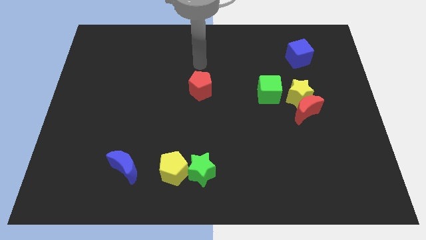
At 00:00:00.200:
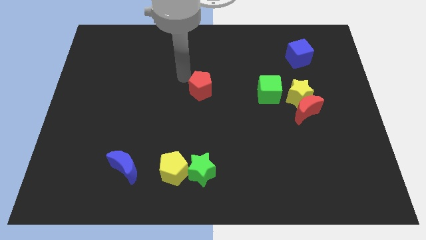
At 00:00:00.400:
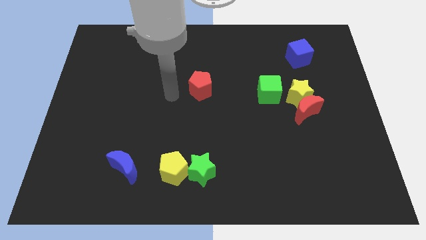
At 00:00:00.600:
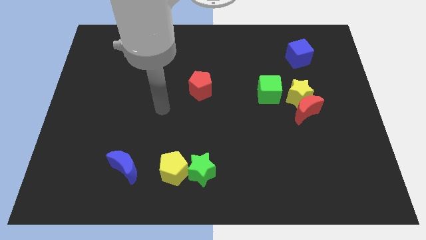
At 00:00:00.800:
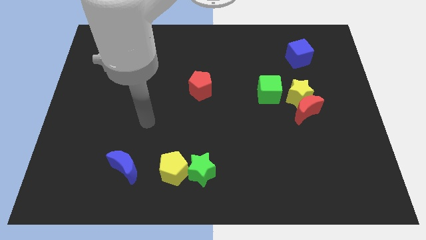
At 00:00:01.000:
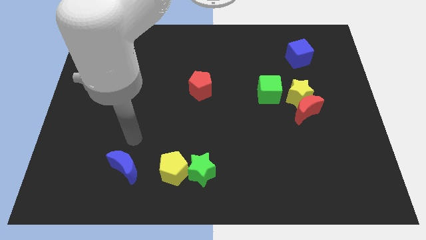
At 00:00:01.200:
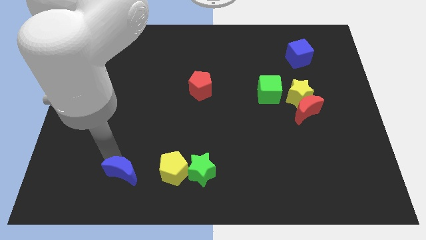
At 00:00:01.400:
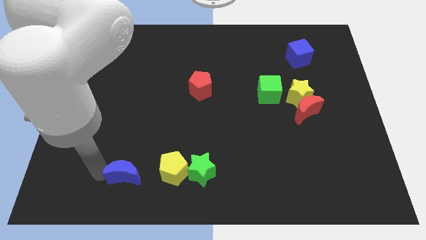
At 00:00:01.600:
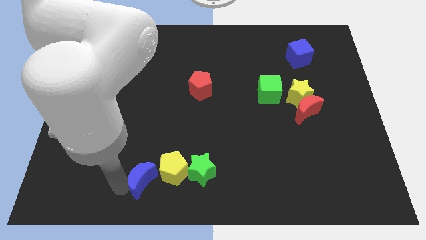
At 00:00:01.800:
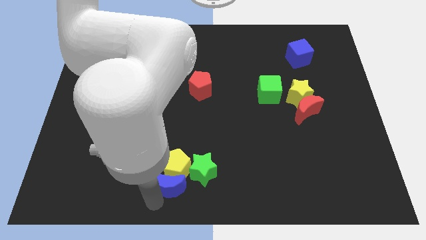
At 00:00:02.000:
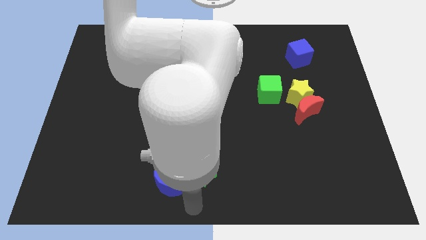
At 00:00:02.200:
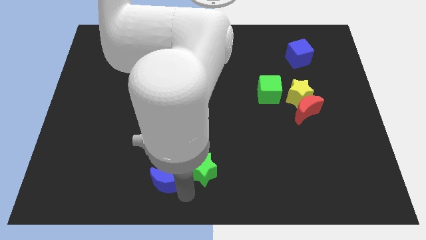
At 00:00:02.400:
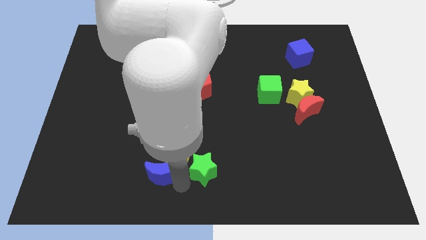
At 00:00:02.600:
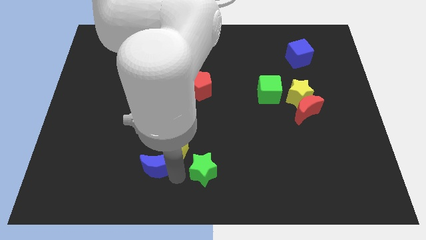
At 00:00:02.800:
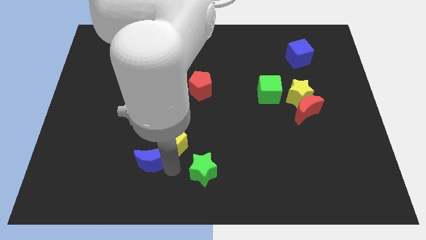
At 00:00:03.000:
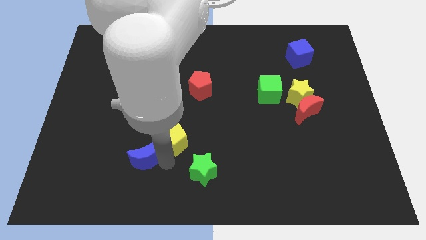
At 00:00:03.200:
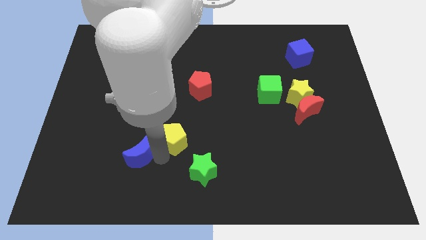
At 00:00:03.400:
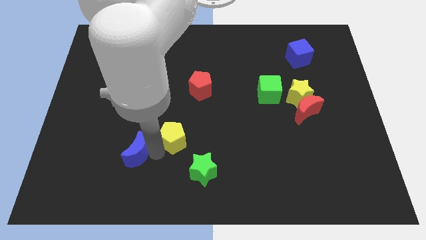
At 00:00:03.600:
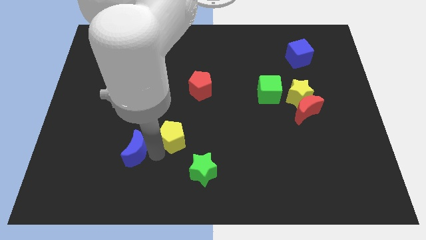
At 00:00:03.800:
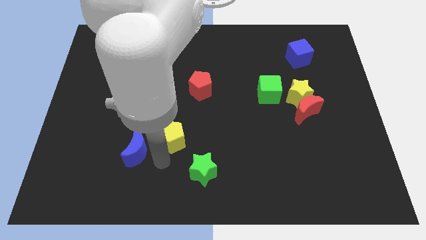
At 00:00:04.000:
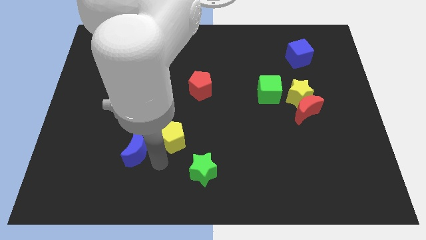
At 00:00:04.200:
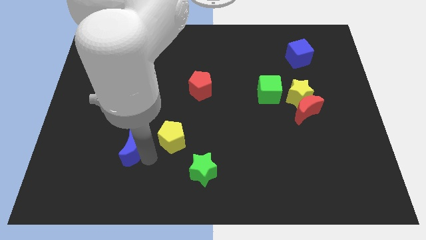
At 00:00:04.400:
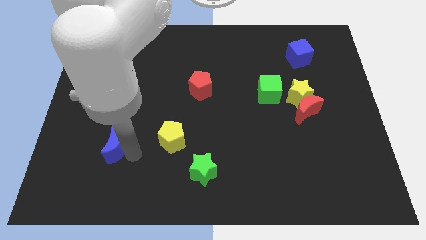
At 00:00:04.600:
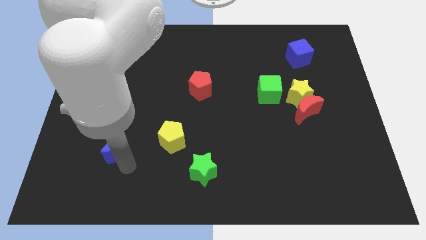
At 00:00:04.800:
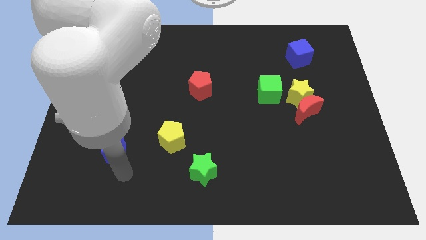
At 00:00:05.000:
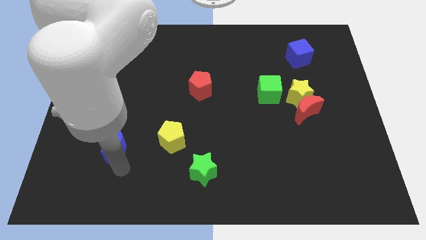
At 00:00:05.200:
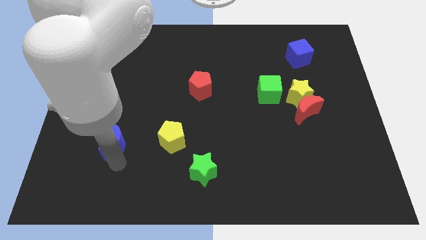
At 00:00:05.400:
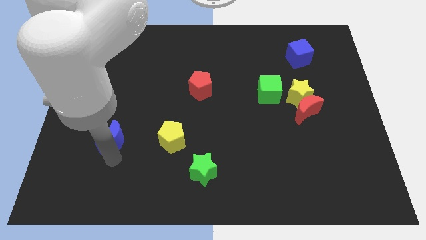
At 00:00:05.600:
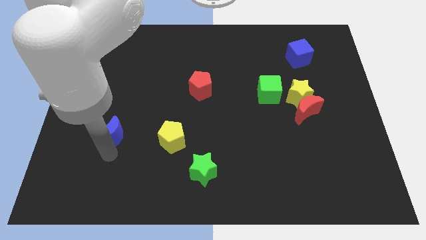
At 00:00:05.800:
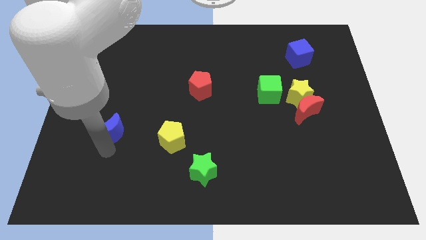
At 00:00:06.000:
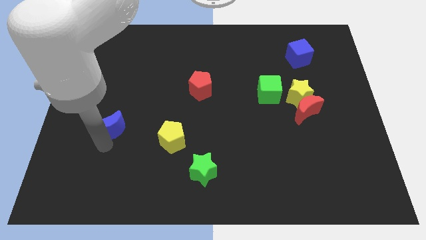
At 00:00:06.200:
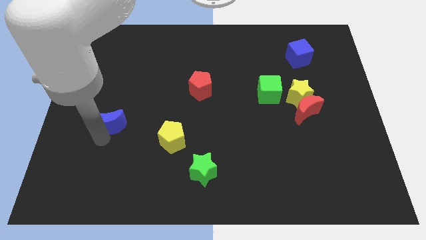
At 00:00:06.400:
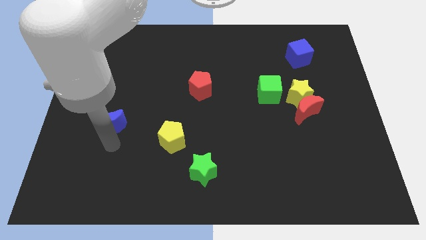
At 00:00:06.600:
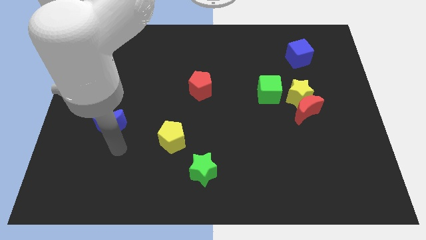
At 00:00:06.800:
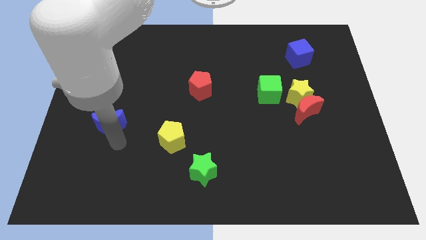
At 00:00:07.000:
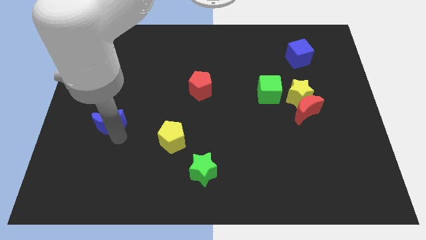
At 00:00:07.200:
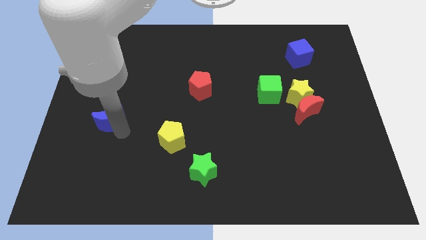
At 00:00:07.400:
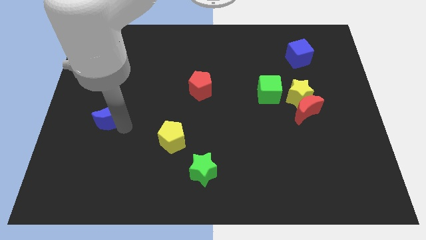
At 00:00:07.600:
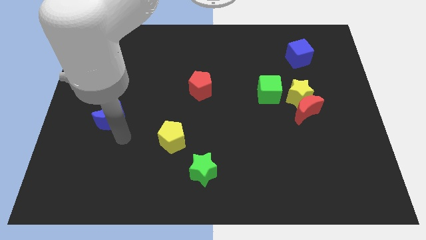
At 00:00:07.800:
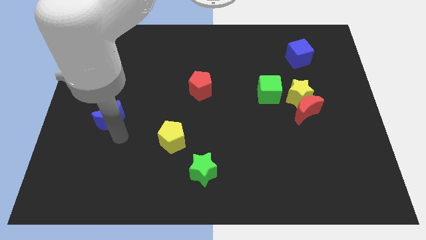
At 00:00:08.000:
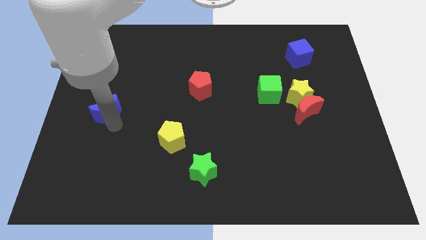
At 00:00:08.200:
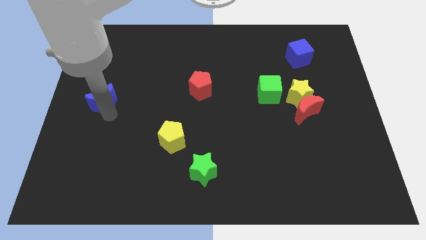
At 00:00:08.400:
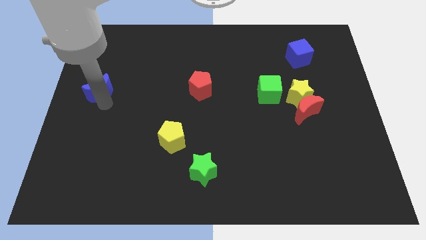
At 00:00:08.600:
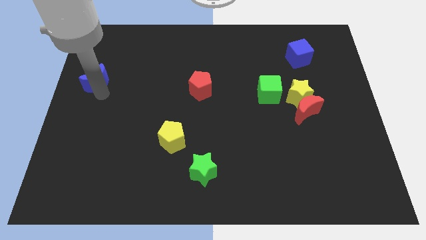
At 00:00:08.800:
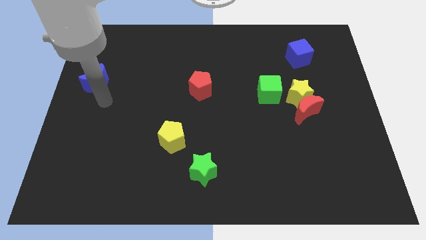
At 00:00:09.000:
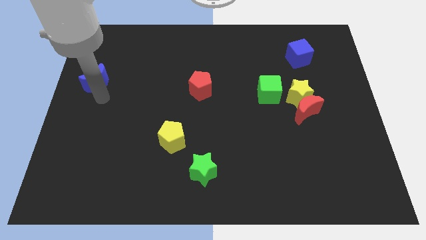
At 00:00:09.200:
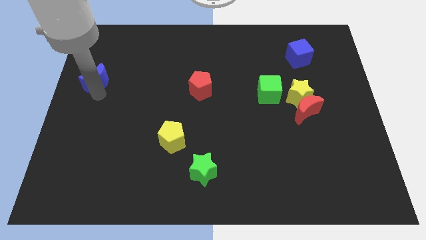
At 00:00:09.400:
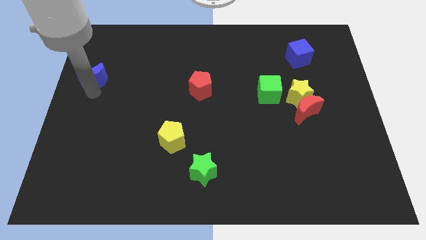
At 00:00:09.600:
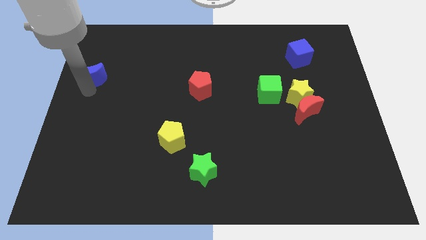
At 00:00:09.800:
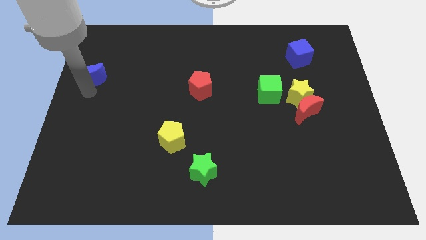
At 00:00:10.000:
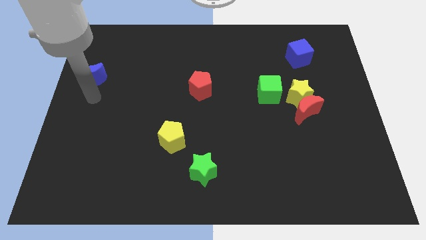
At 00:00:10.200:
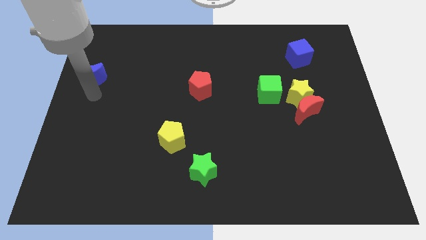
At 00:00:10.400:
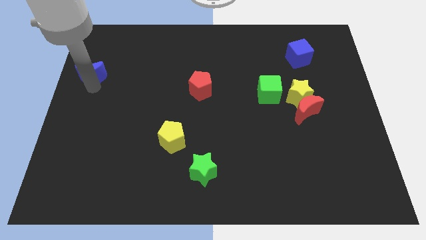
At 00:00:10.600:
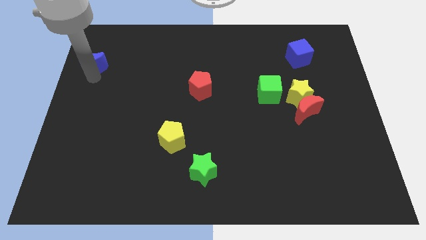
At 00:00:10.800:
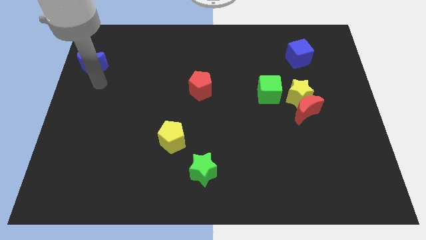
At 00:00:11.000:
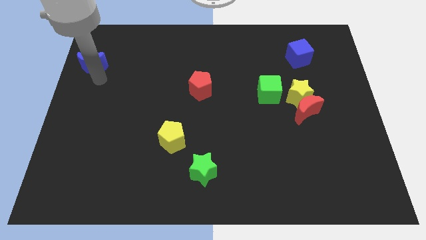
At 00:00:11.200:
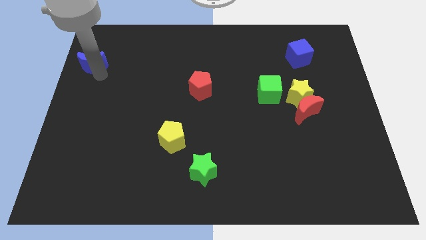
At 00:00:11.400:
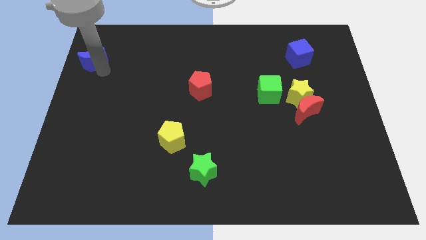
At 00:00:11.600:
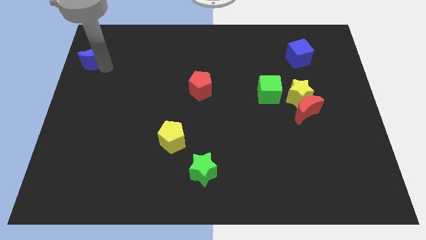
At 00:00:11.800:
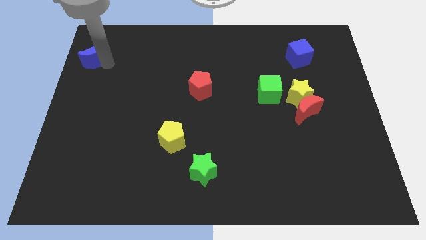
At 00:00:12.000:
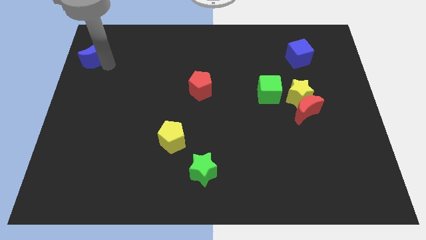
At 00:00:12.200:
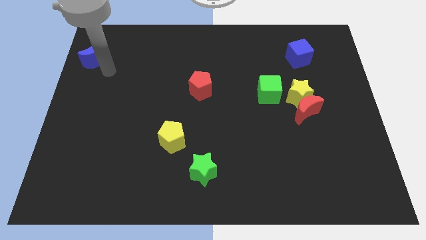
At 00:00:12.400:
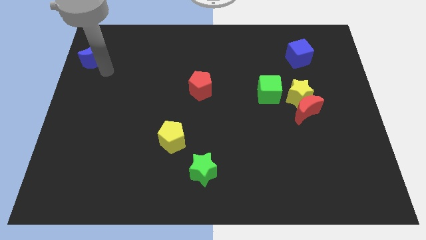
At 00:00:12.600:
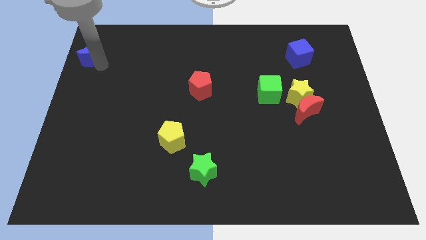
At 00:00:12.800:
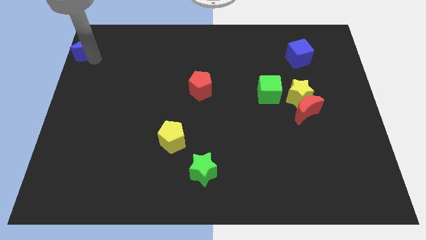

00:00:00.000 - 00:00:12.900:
push the blue moon to the upper left corner
